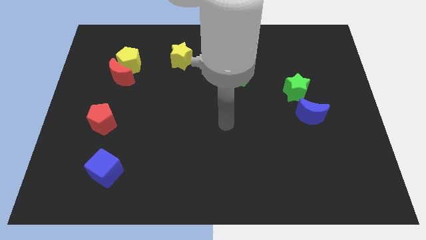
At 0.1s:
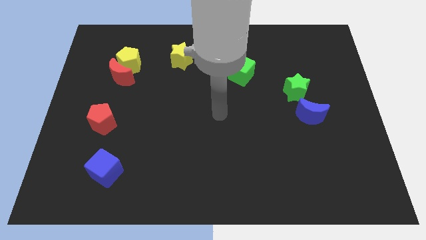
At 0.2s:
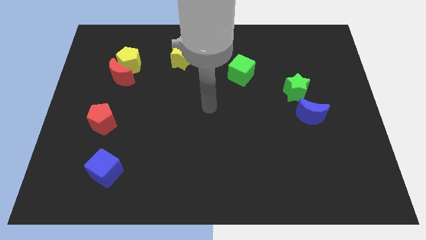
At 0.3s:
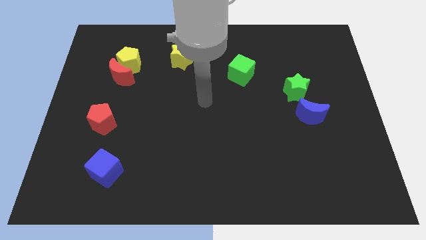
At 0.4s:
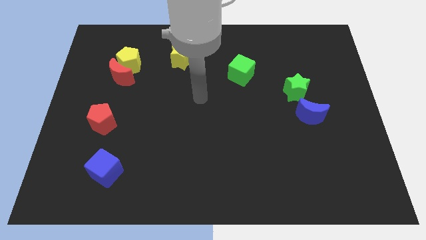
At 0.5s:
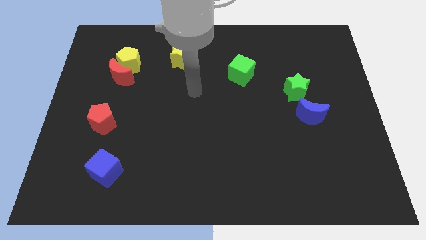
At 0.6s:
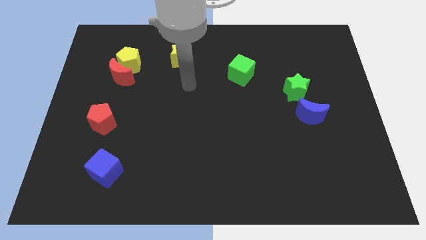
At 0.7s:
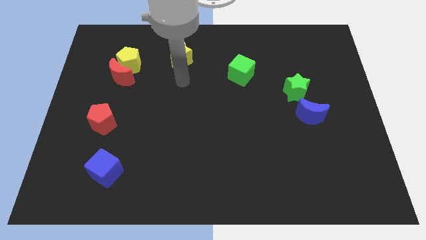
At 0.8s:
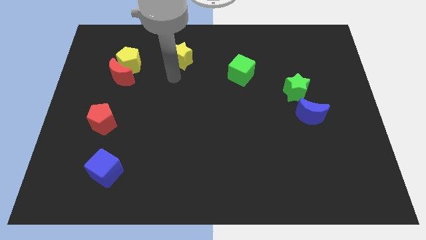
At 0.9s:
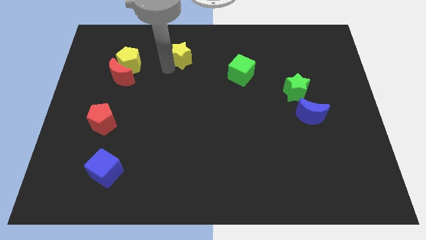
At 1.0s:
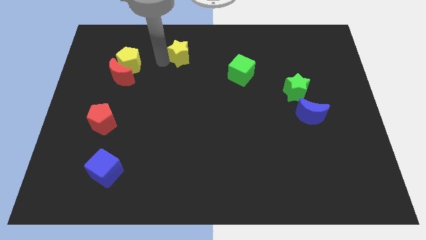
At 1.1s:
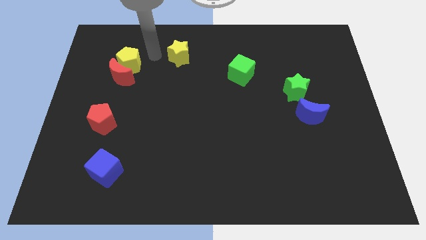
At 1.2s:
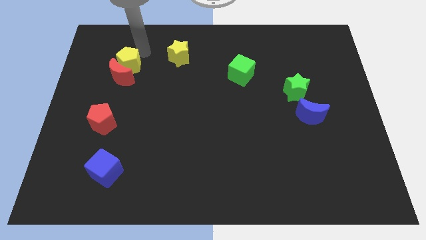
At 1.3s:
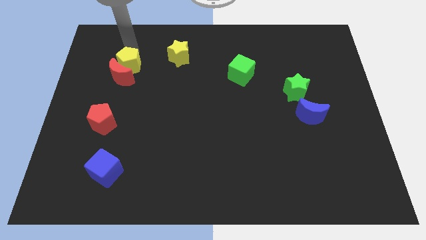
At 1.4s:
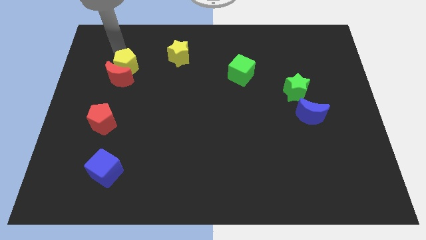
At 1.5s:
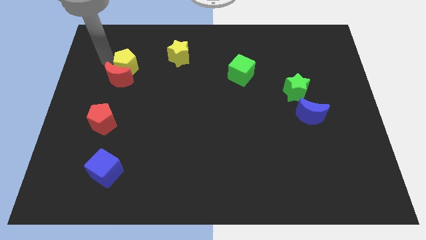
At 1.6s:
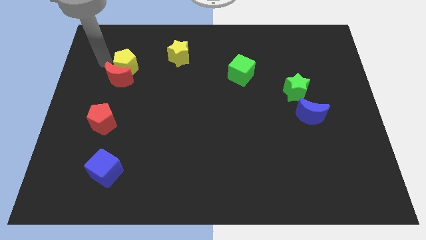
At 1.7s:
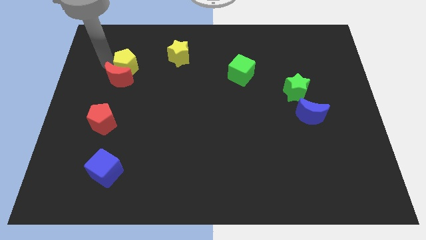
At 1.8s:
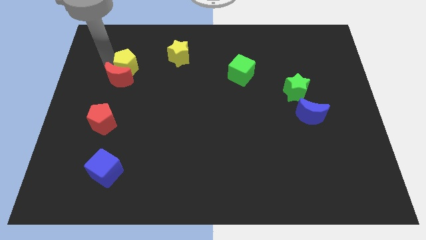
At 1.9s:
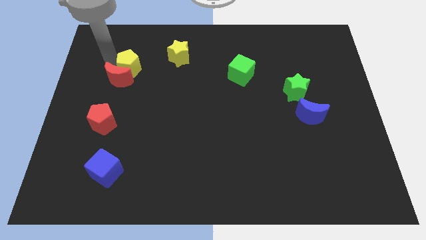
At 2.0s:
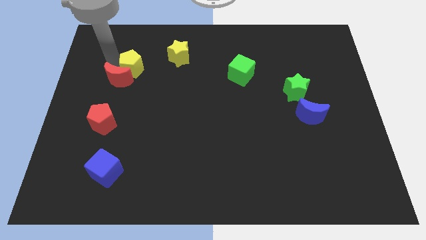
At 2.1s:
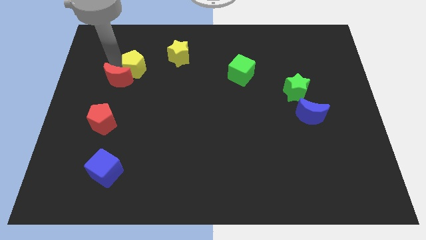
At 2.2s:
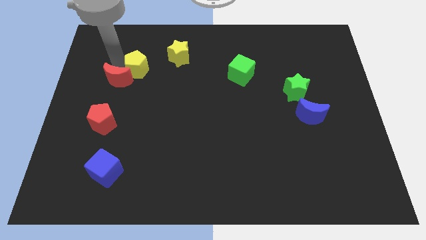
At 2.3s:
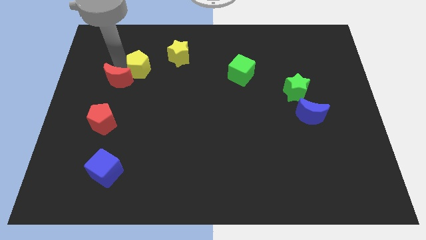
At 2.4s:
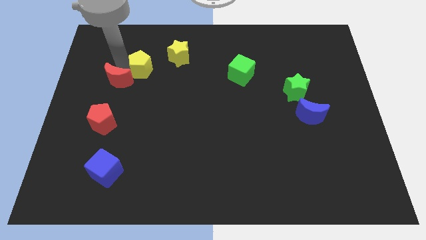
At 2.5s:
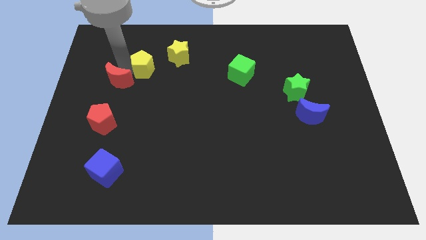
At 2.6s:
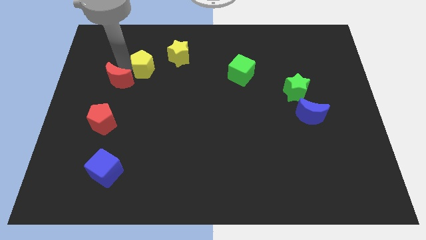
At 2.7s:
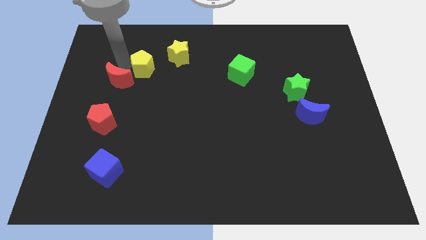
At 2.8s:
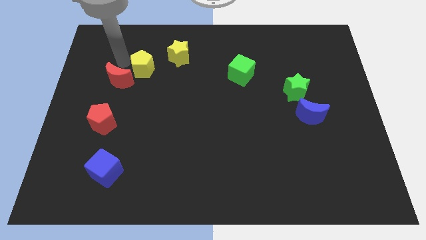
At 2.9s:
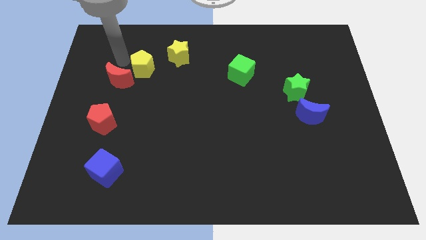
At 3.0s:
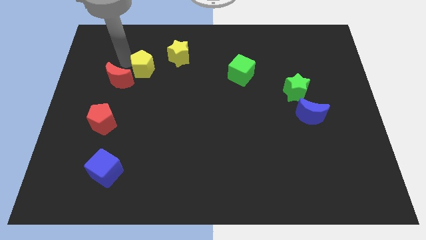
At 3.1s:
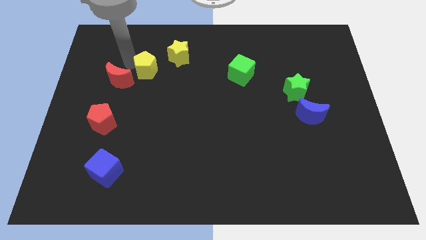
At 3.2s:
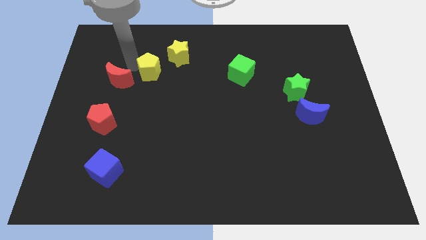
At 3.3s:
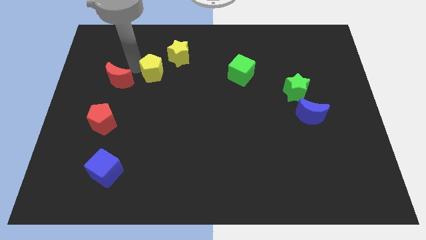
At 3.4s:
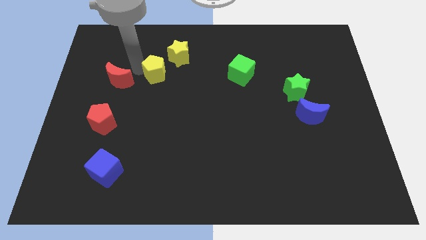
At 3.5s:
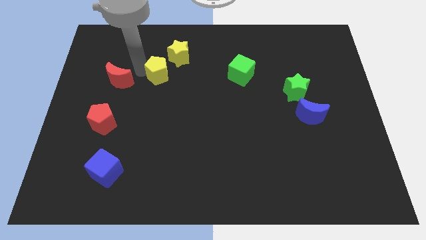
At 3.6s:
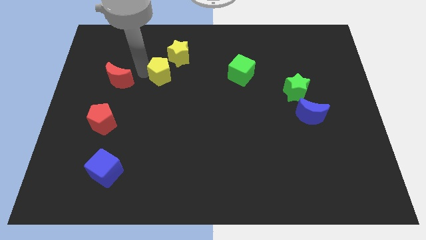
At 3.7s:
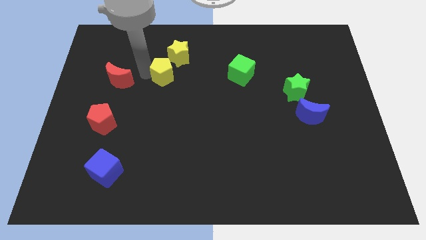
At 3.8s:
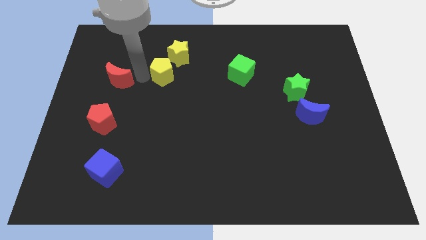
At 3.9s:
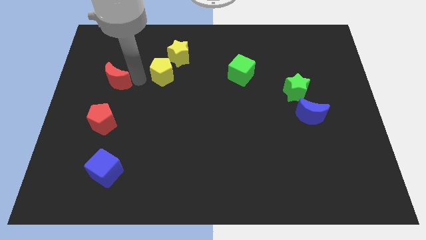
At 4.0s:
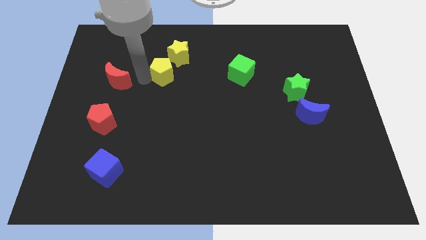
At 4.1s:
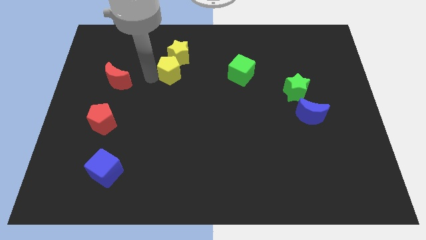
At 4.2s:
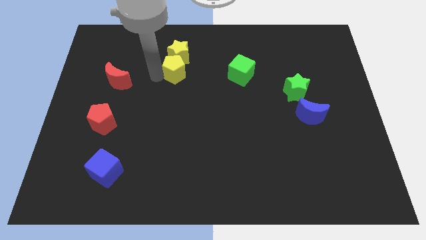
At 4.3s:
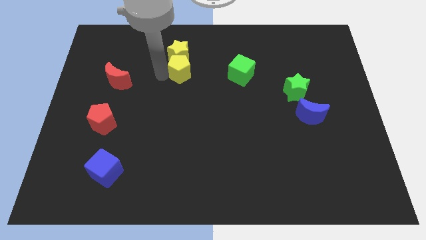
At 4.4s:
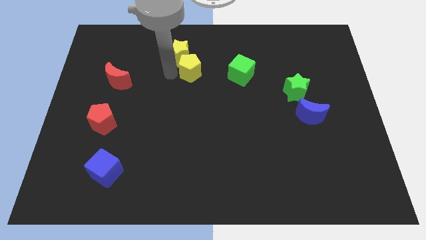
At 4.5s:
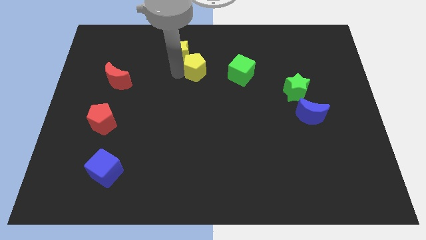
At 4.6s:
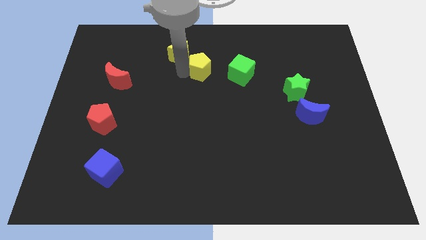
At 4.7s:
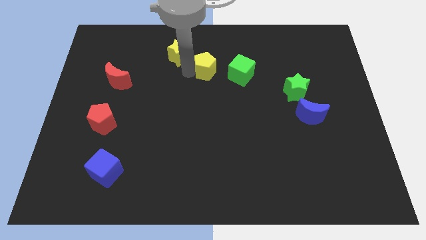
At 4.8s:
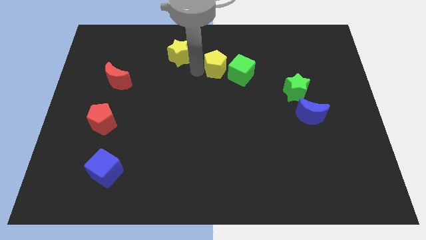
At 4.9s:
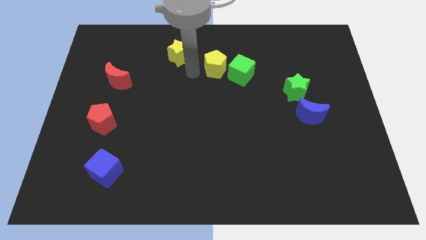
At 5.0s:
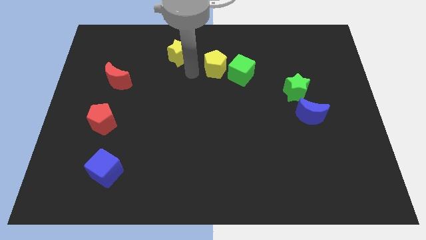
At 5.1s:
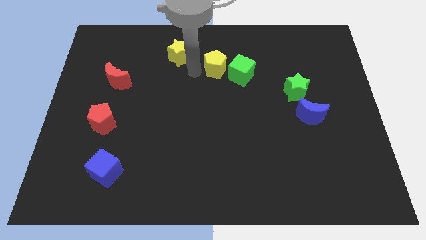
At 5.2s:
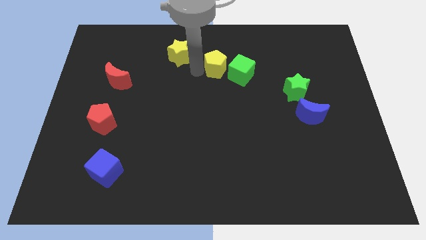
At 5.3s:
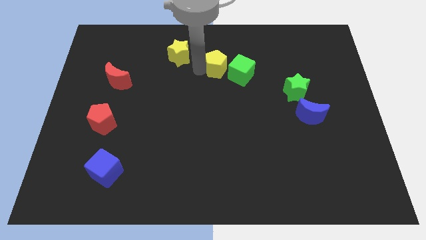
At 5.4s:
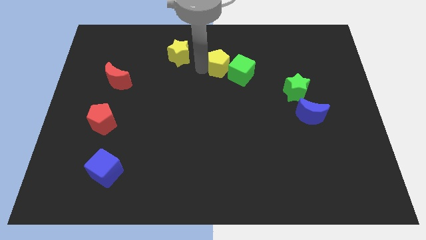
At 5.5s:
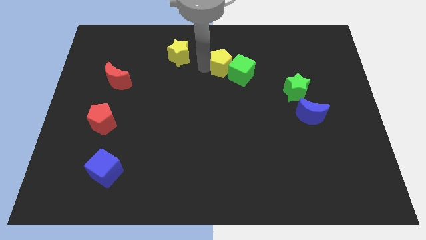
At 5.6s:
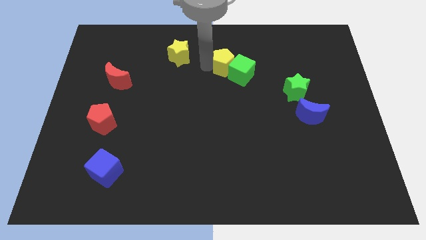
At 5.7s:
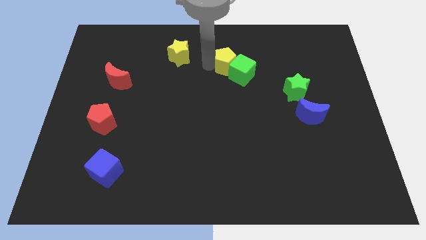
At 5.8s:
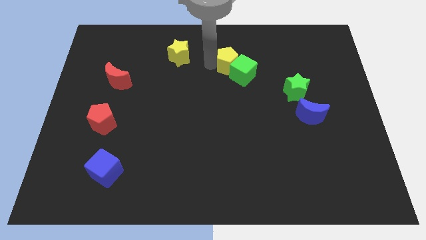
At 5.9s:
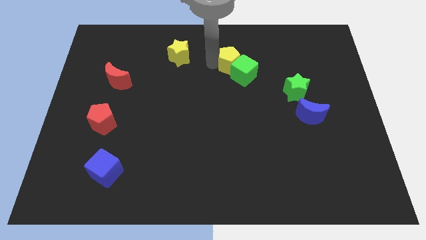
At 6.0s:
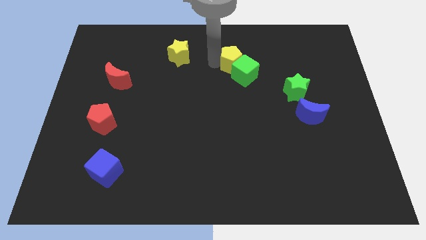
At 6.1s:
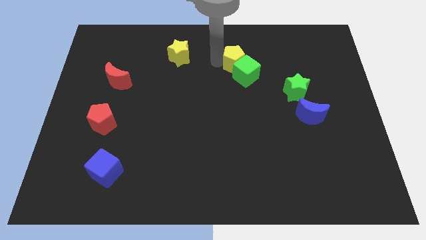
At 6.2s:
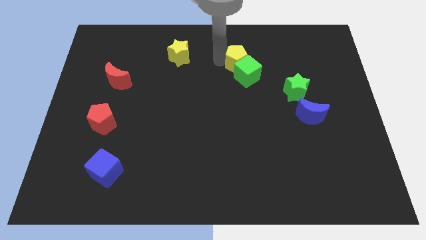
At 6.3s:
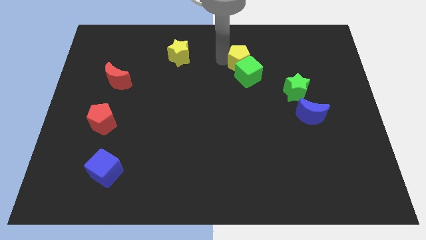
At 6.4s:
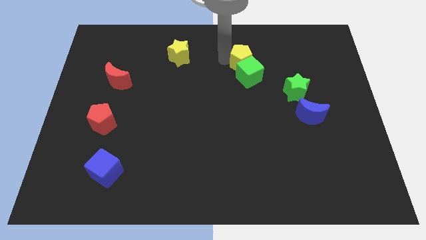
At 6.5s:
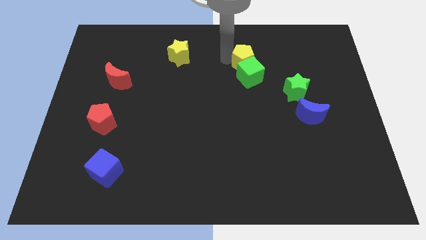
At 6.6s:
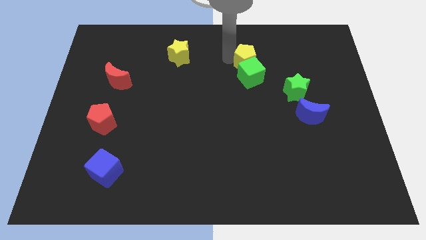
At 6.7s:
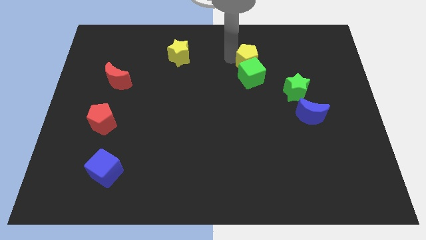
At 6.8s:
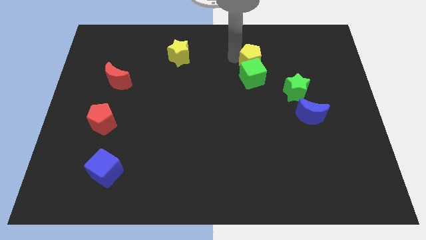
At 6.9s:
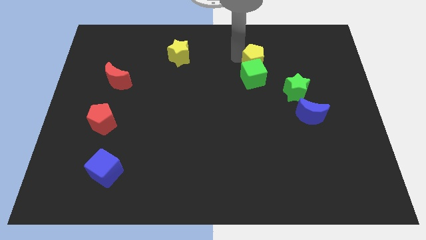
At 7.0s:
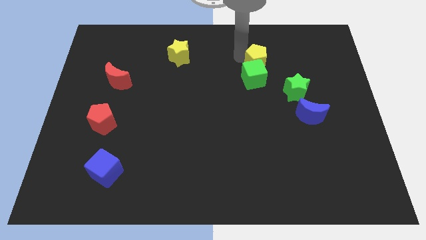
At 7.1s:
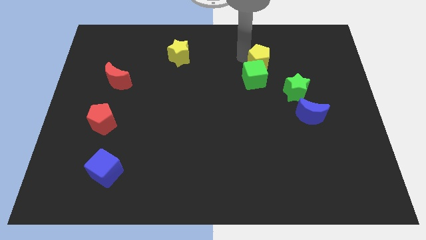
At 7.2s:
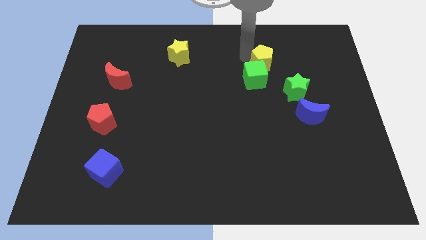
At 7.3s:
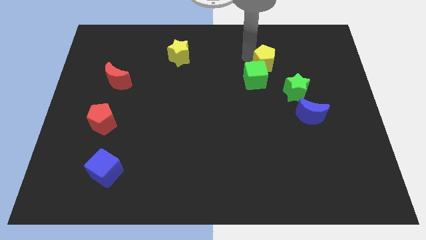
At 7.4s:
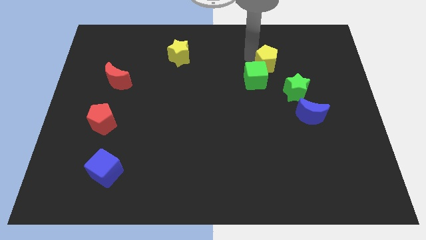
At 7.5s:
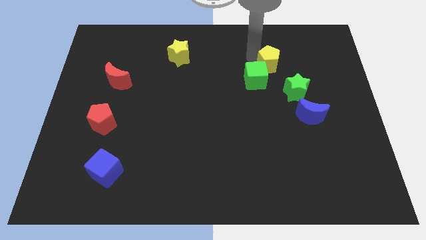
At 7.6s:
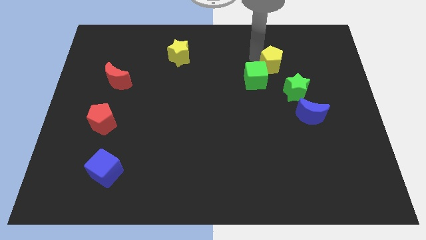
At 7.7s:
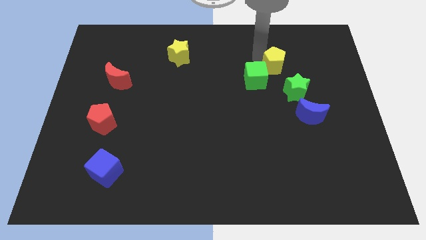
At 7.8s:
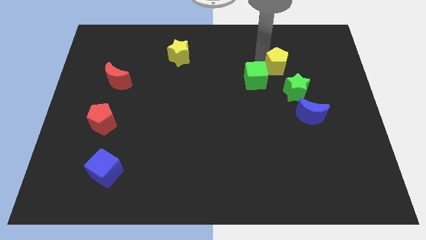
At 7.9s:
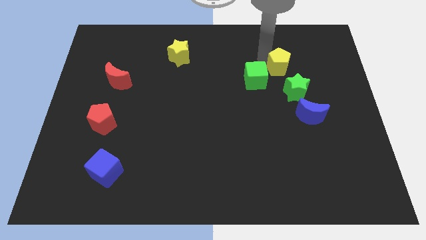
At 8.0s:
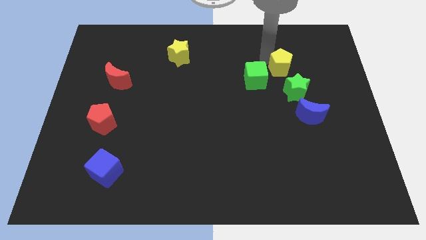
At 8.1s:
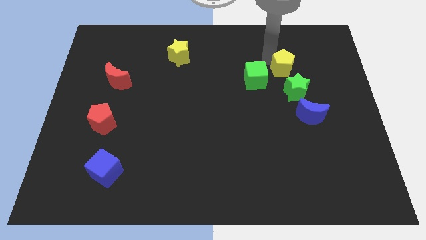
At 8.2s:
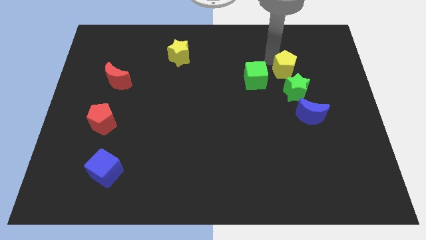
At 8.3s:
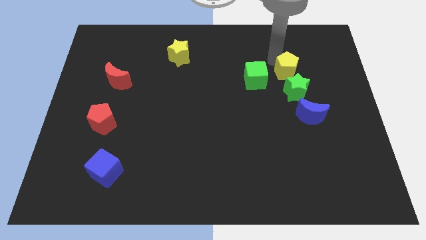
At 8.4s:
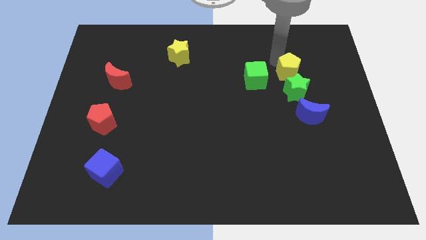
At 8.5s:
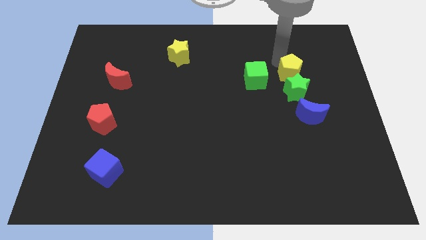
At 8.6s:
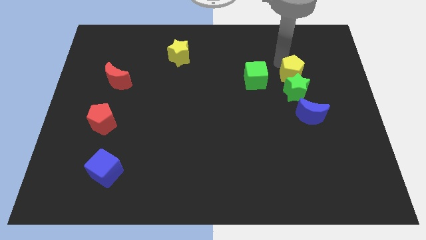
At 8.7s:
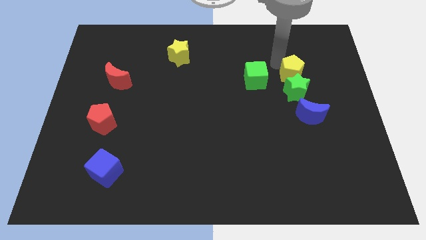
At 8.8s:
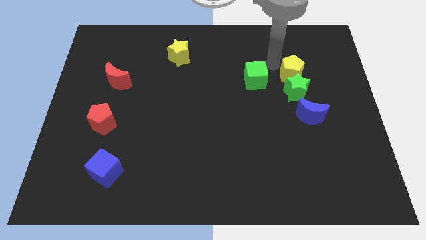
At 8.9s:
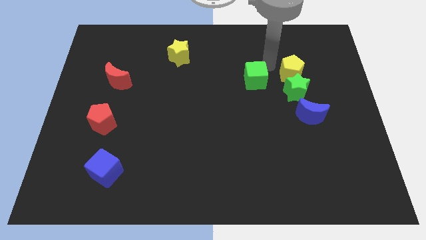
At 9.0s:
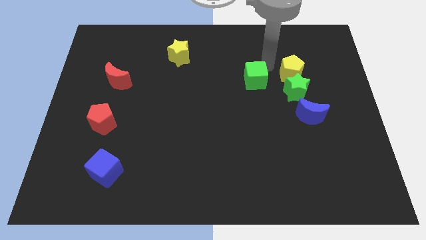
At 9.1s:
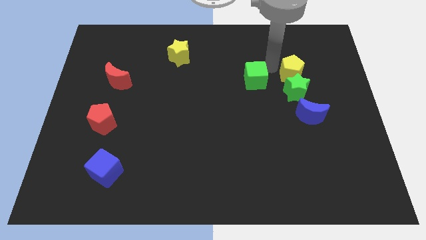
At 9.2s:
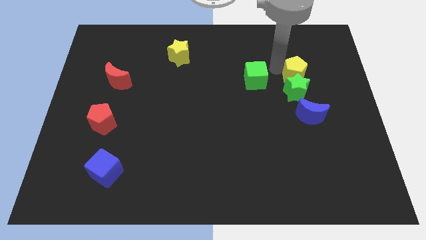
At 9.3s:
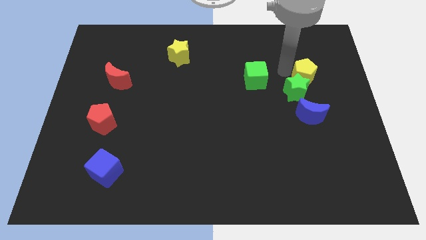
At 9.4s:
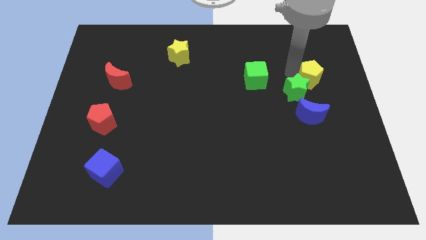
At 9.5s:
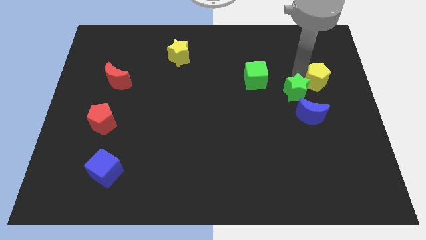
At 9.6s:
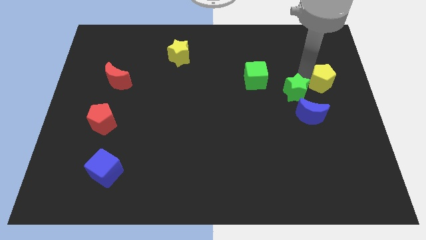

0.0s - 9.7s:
slide the yellow pentagon to the center right
